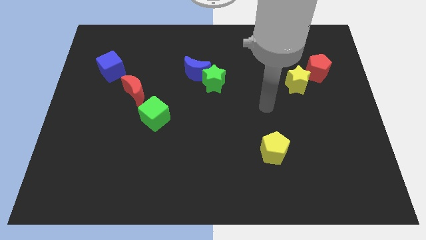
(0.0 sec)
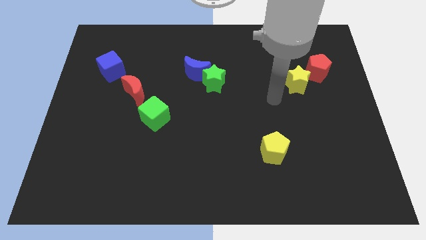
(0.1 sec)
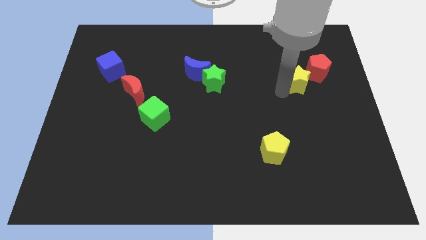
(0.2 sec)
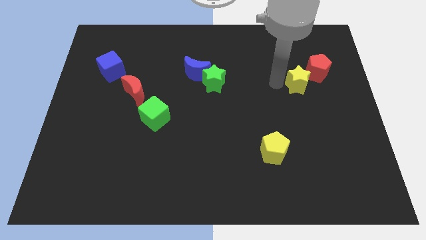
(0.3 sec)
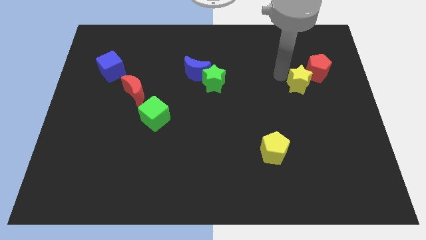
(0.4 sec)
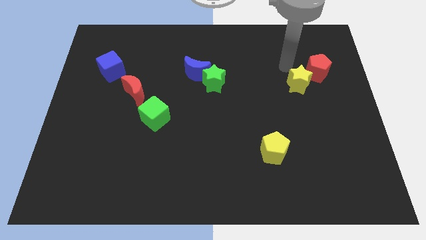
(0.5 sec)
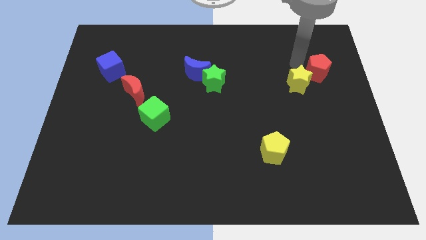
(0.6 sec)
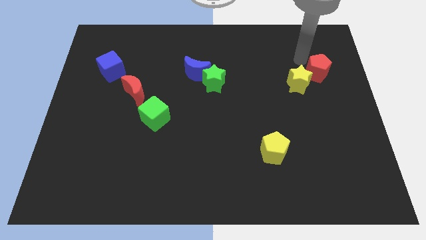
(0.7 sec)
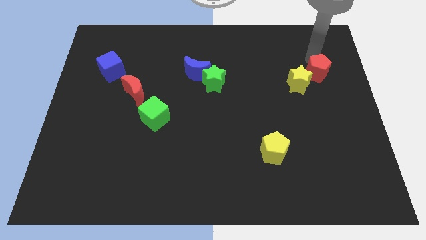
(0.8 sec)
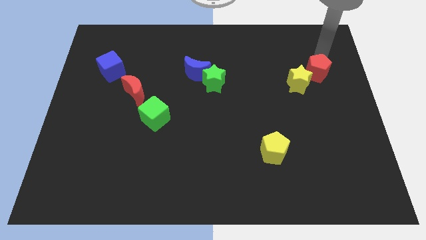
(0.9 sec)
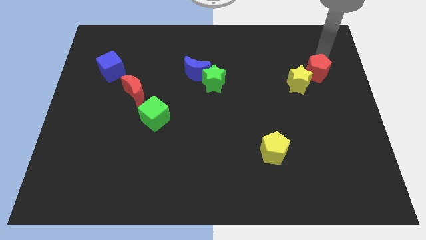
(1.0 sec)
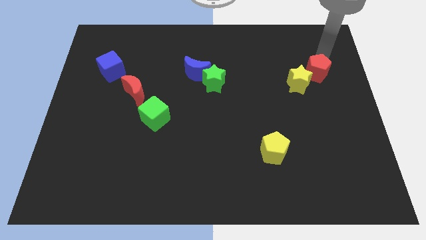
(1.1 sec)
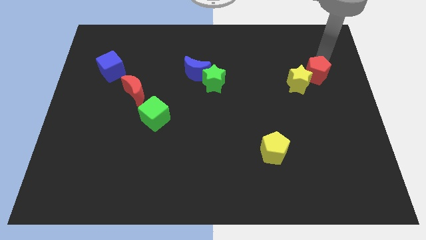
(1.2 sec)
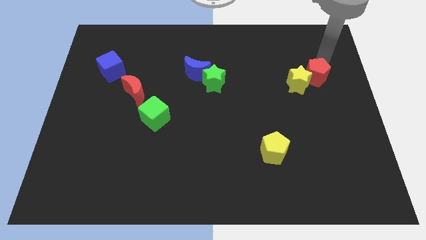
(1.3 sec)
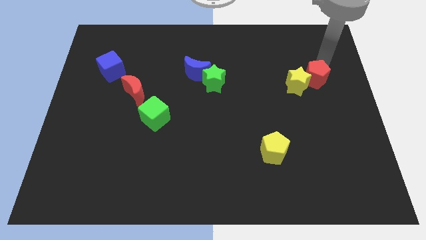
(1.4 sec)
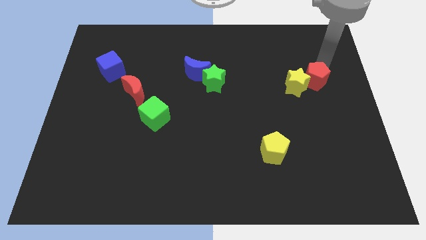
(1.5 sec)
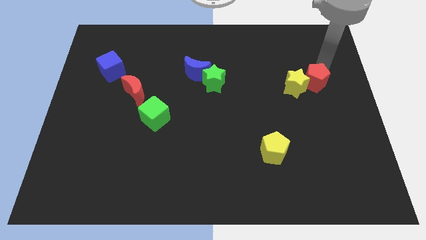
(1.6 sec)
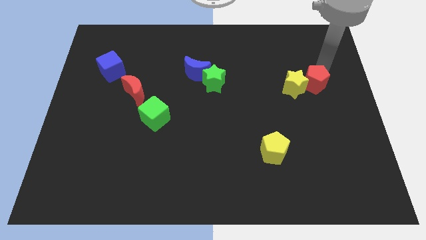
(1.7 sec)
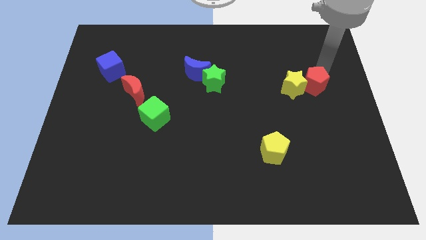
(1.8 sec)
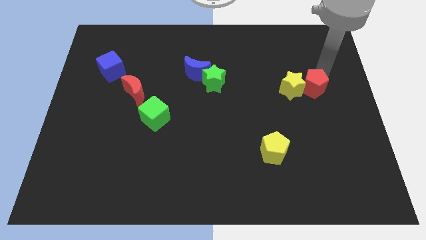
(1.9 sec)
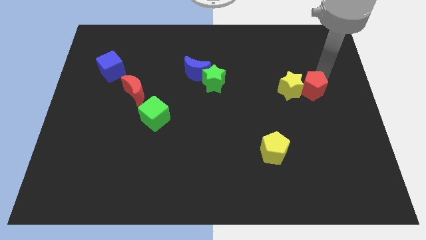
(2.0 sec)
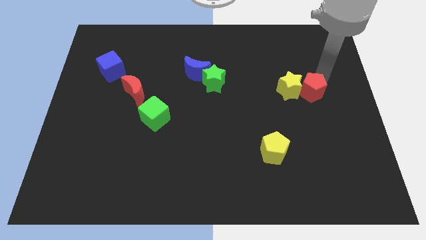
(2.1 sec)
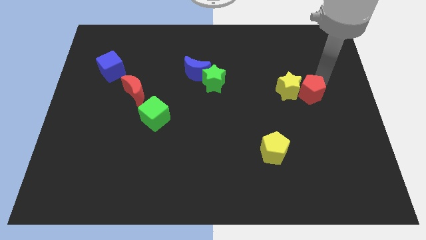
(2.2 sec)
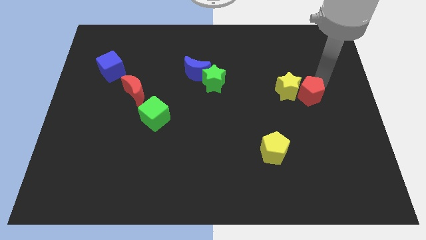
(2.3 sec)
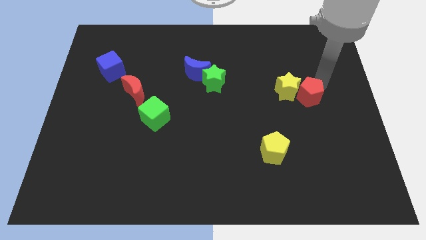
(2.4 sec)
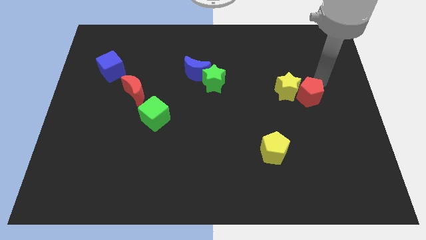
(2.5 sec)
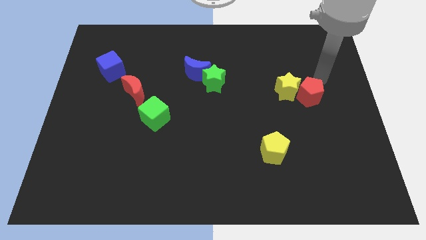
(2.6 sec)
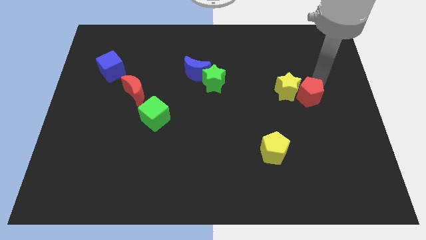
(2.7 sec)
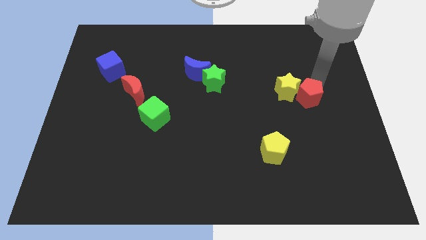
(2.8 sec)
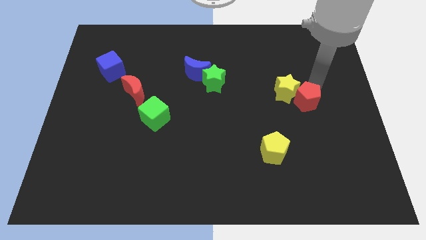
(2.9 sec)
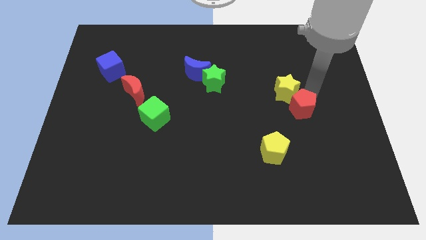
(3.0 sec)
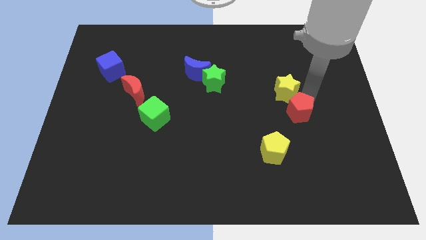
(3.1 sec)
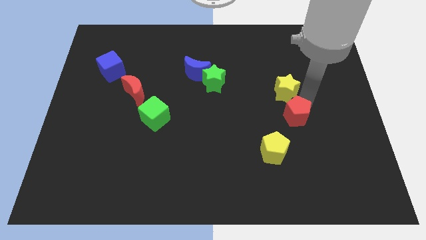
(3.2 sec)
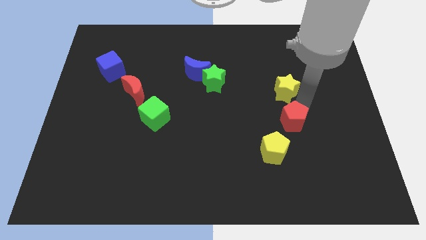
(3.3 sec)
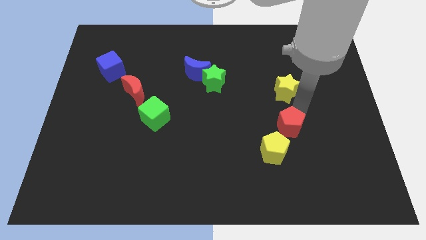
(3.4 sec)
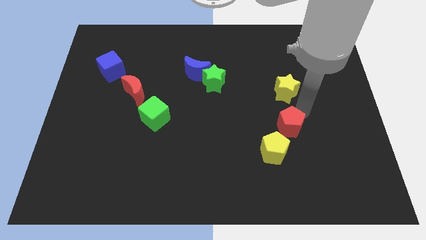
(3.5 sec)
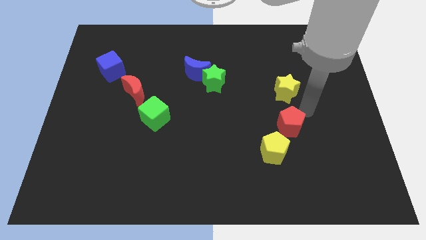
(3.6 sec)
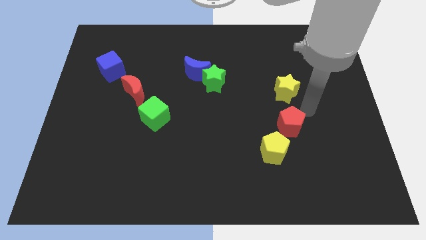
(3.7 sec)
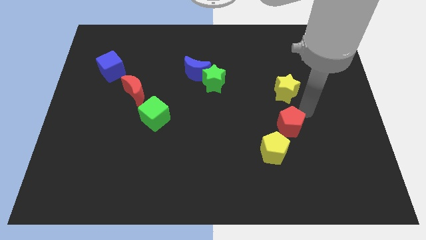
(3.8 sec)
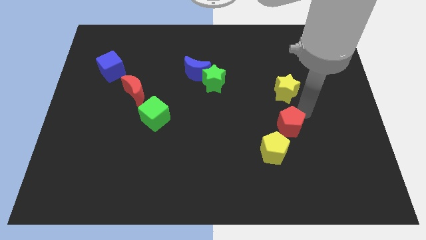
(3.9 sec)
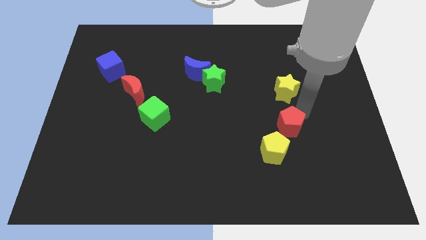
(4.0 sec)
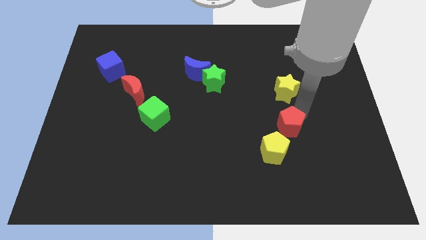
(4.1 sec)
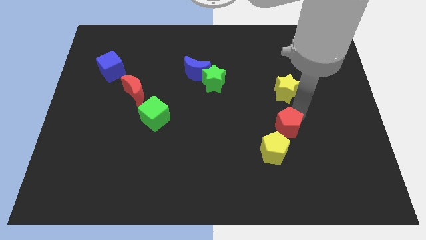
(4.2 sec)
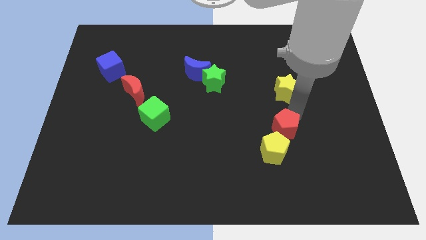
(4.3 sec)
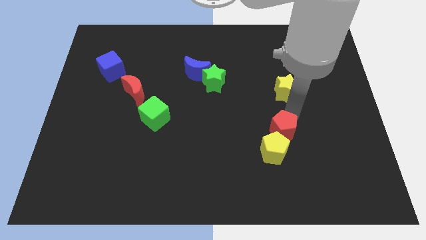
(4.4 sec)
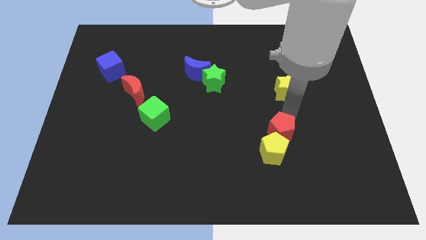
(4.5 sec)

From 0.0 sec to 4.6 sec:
move the red pentagon towards the yellow pentagon

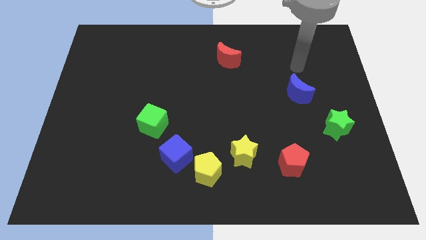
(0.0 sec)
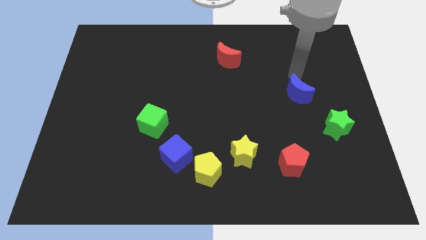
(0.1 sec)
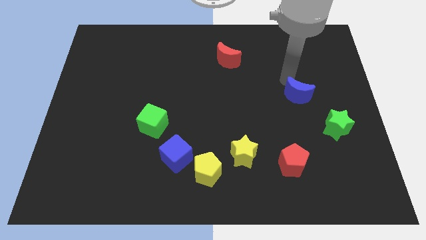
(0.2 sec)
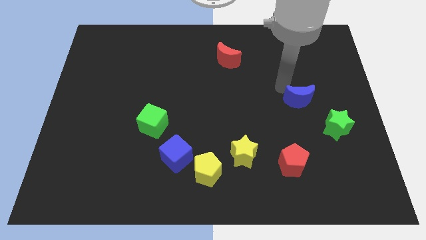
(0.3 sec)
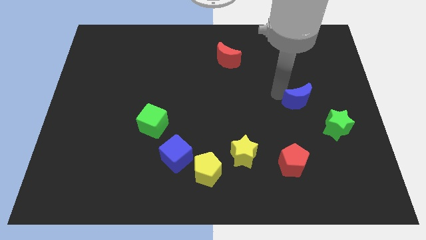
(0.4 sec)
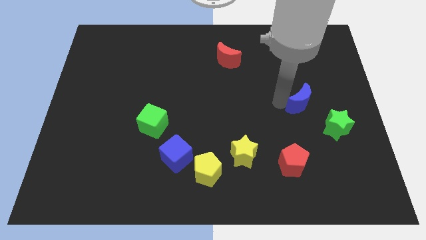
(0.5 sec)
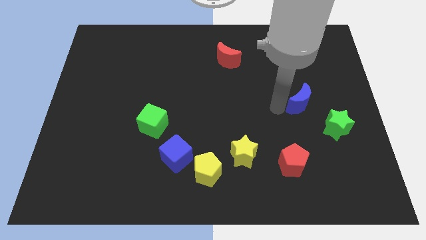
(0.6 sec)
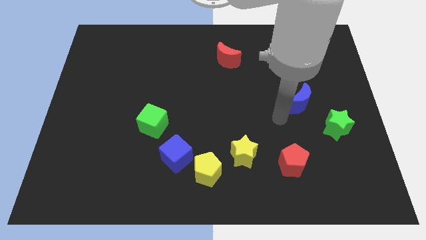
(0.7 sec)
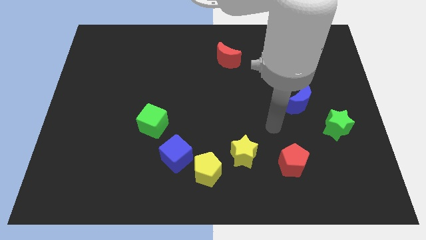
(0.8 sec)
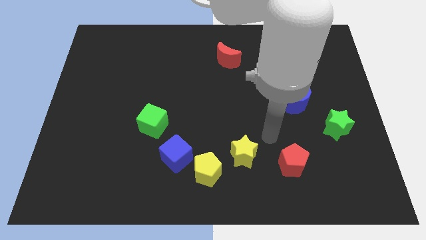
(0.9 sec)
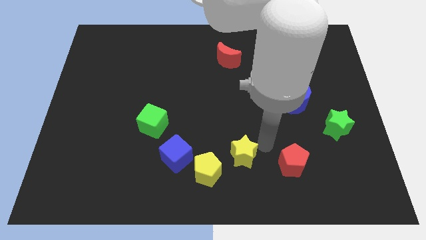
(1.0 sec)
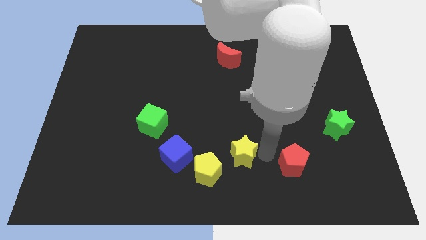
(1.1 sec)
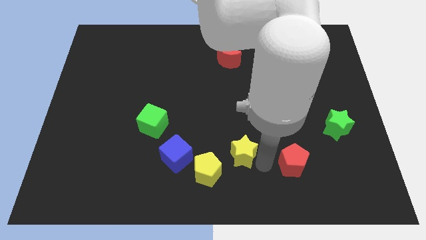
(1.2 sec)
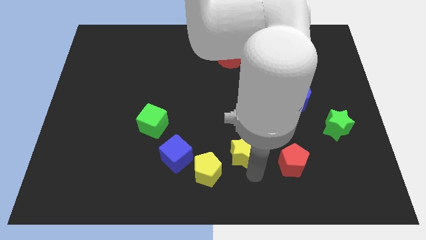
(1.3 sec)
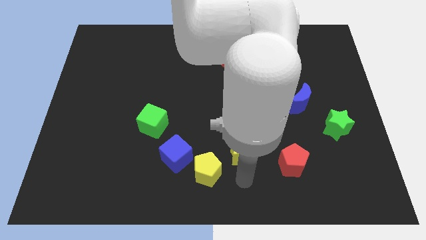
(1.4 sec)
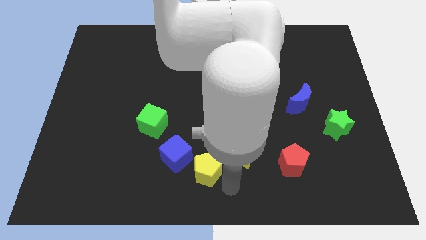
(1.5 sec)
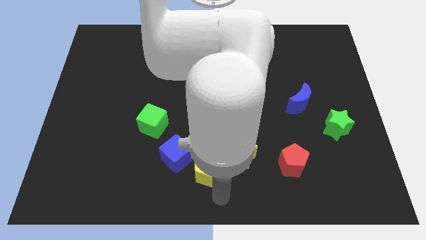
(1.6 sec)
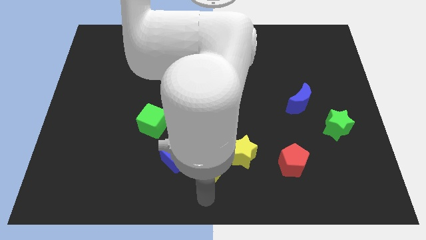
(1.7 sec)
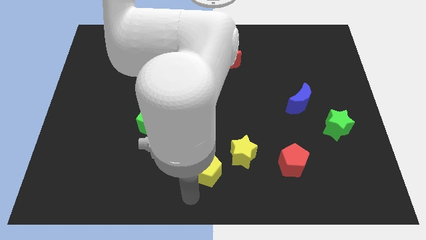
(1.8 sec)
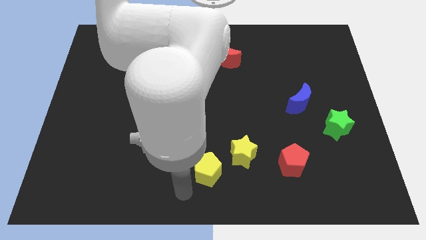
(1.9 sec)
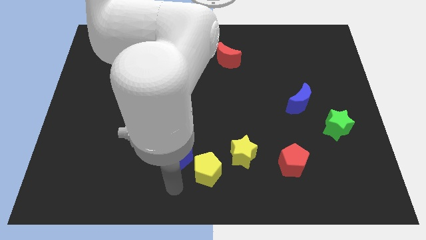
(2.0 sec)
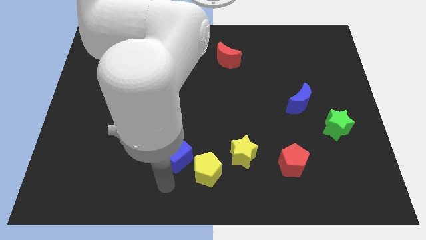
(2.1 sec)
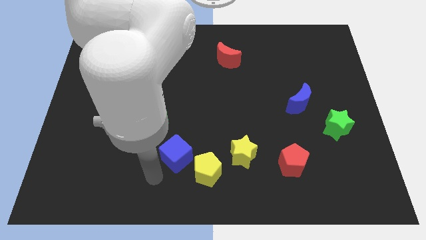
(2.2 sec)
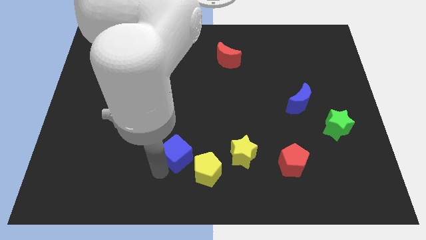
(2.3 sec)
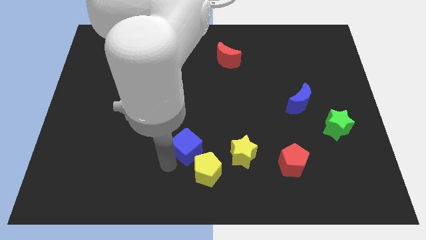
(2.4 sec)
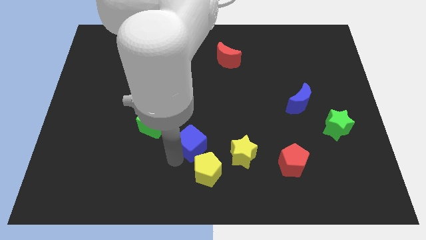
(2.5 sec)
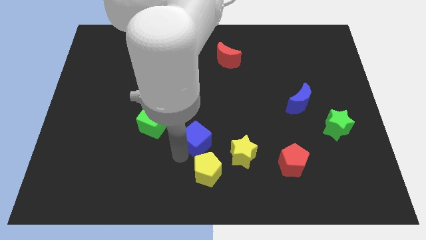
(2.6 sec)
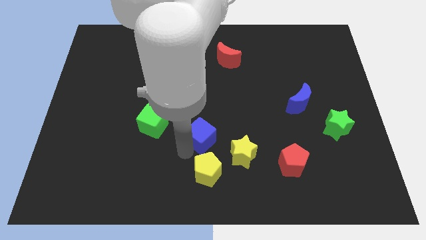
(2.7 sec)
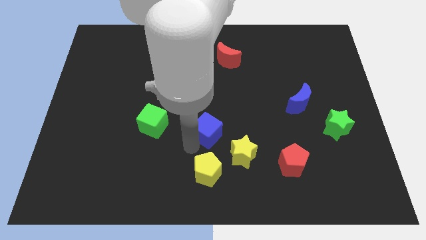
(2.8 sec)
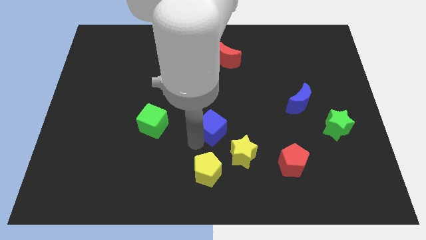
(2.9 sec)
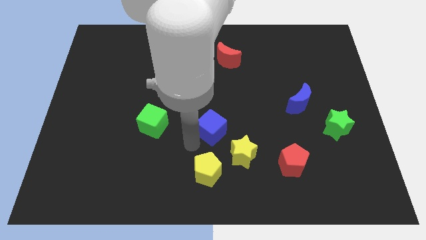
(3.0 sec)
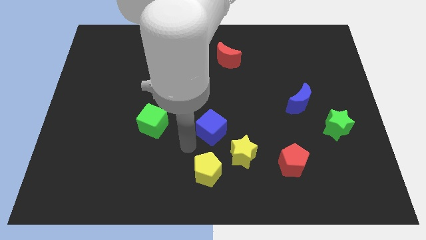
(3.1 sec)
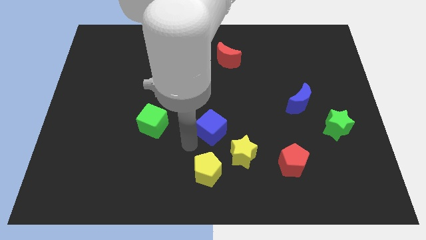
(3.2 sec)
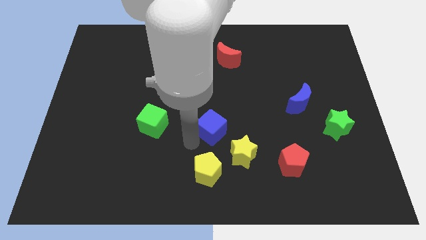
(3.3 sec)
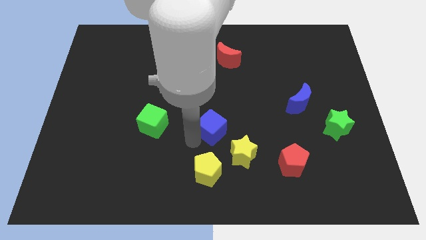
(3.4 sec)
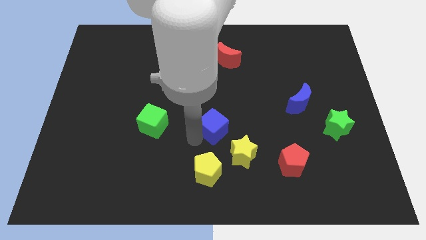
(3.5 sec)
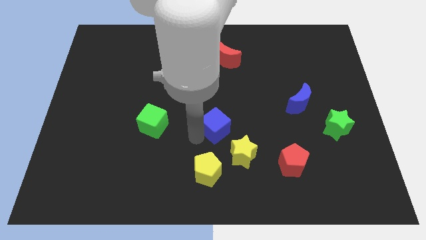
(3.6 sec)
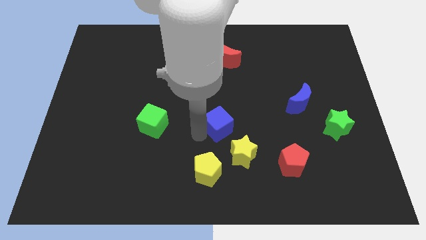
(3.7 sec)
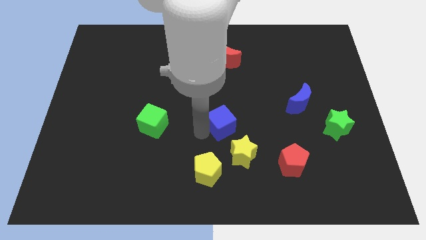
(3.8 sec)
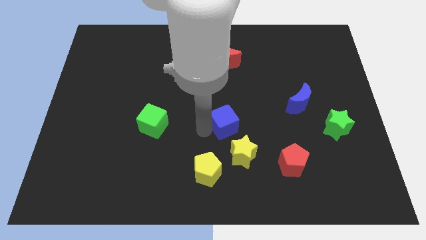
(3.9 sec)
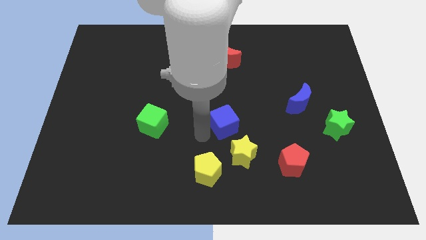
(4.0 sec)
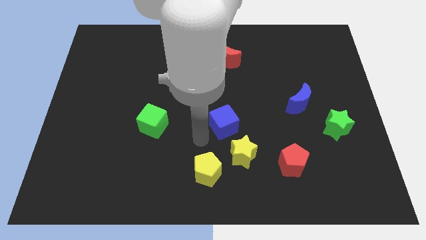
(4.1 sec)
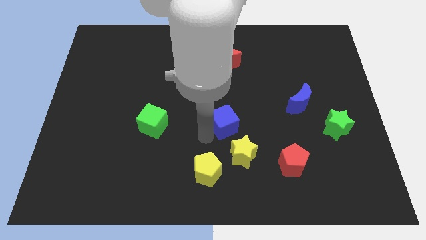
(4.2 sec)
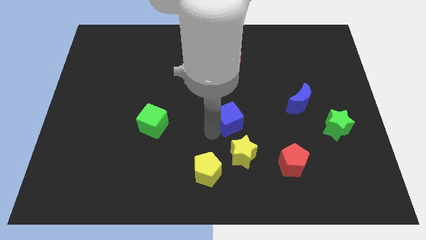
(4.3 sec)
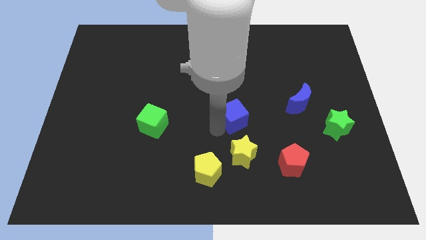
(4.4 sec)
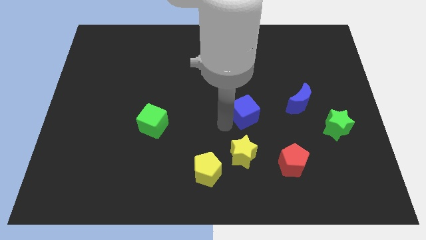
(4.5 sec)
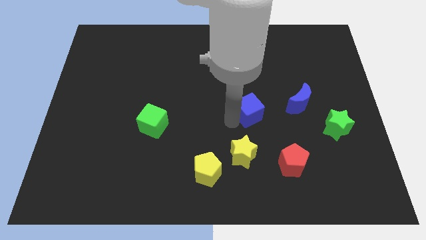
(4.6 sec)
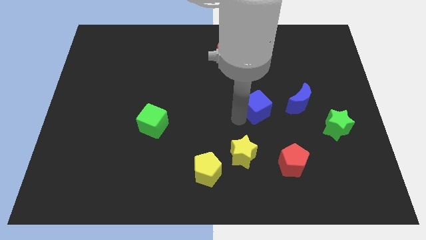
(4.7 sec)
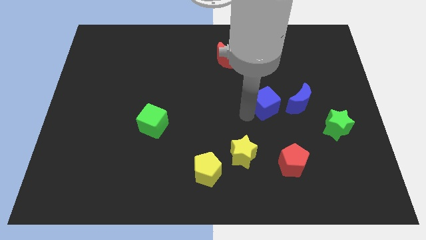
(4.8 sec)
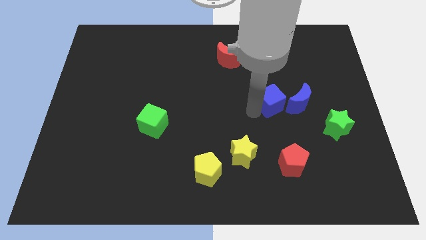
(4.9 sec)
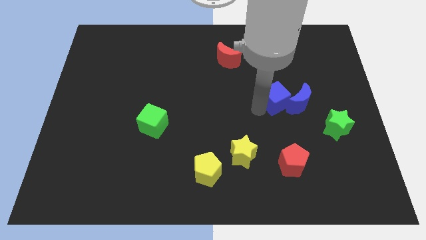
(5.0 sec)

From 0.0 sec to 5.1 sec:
move the blue cube next to the blue moon
